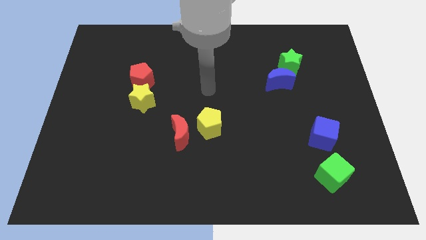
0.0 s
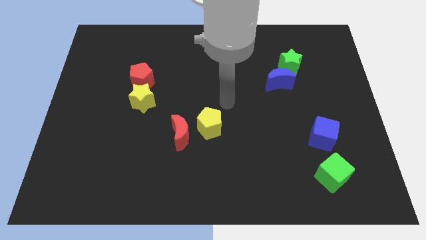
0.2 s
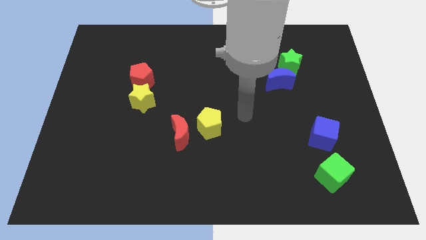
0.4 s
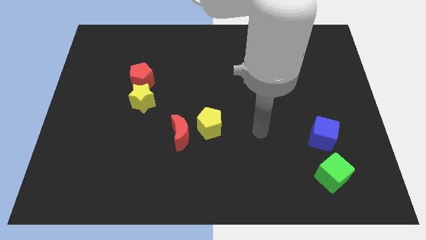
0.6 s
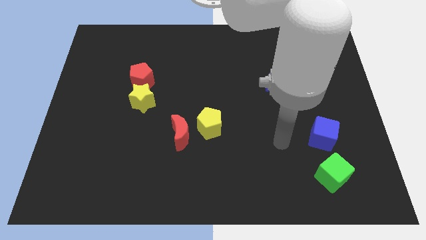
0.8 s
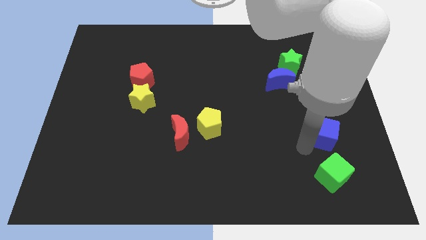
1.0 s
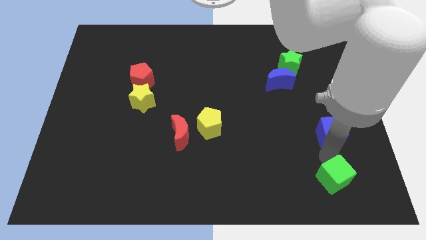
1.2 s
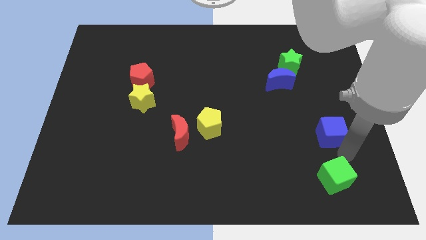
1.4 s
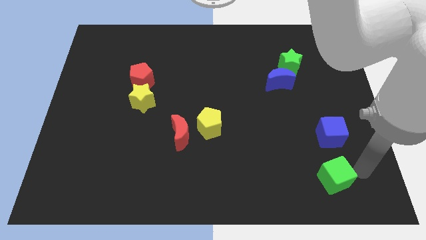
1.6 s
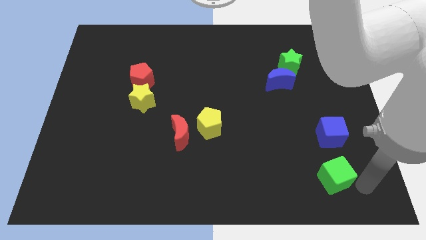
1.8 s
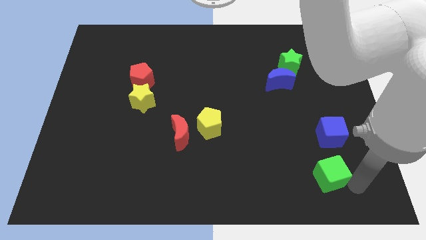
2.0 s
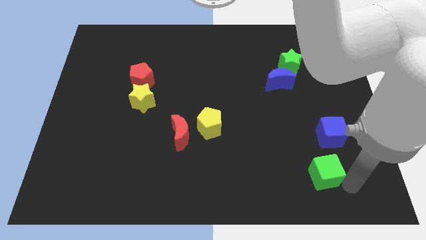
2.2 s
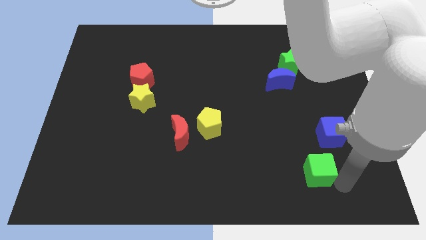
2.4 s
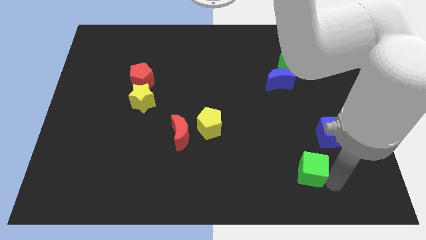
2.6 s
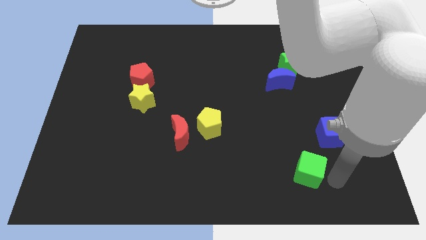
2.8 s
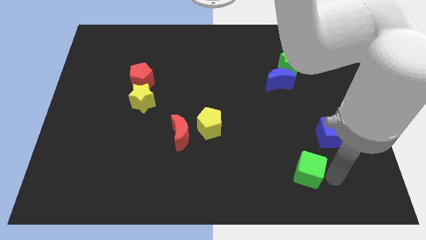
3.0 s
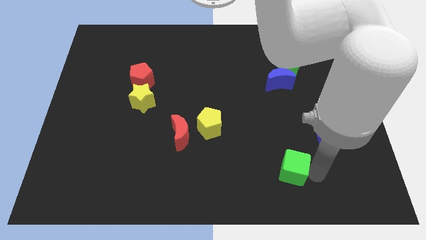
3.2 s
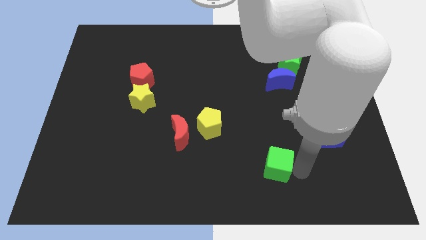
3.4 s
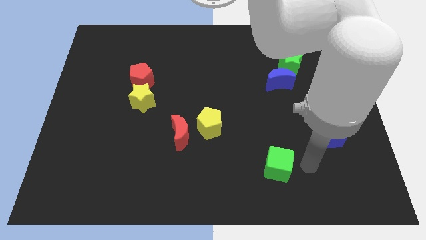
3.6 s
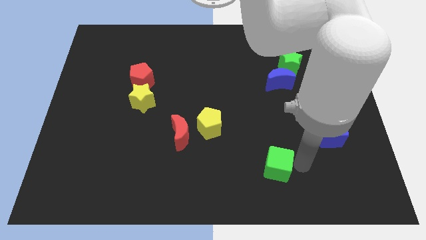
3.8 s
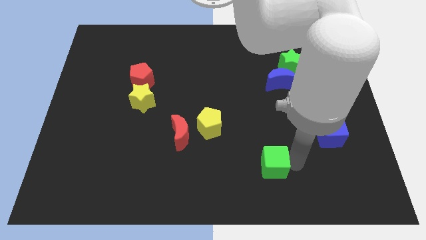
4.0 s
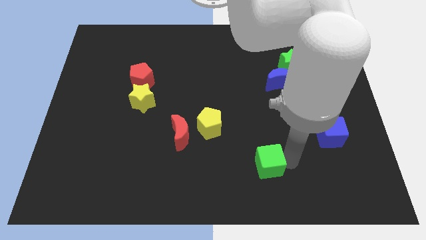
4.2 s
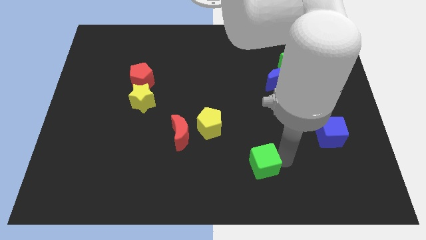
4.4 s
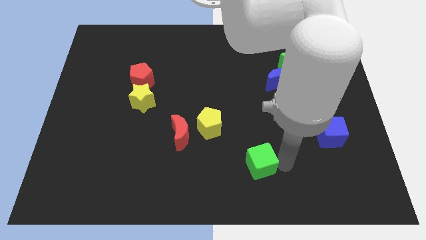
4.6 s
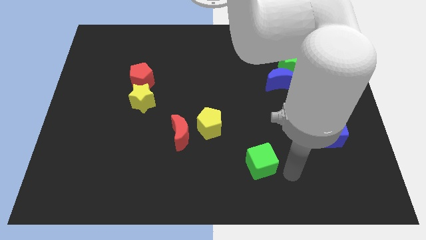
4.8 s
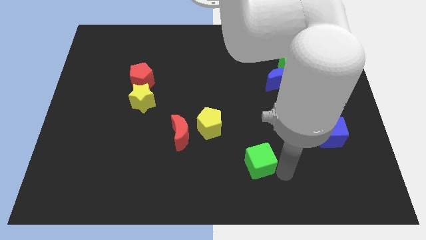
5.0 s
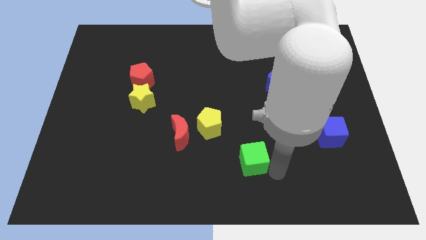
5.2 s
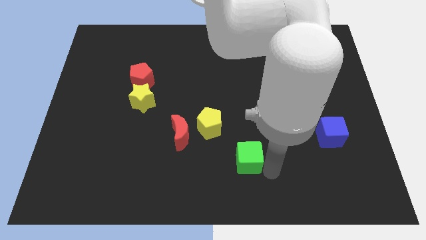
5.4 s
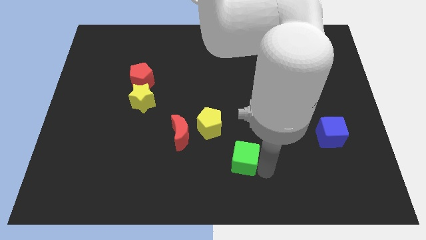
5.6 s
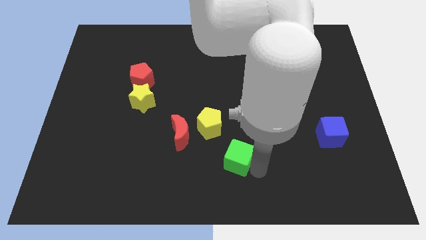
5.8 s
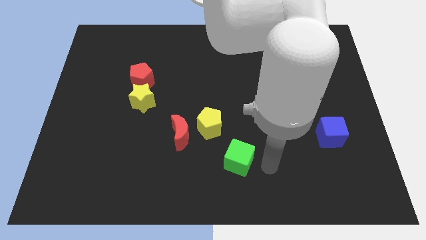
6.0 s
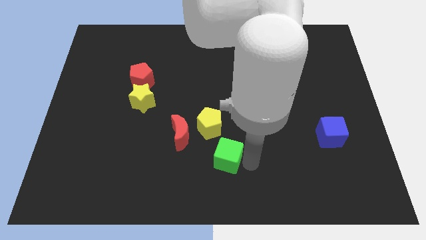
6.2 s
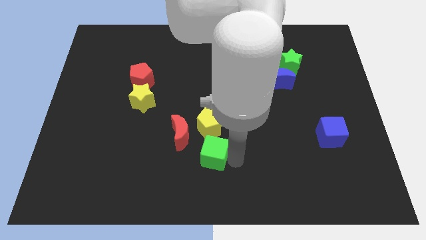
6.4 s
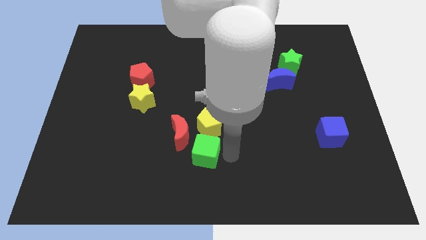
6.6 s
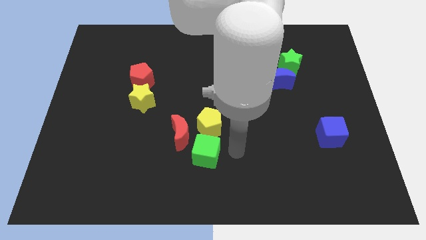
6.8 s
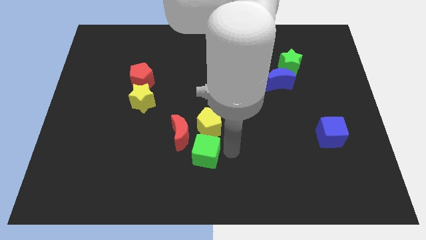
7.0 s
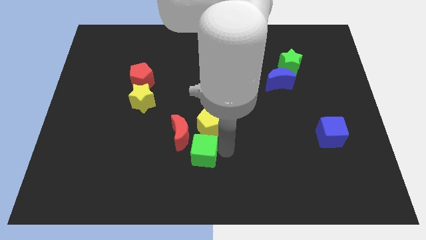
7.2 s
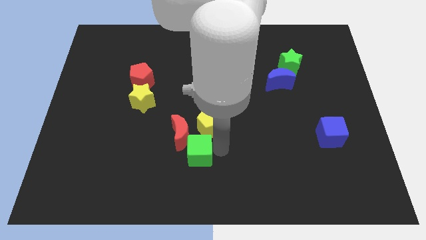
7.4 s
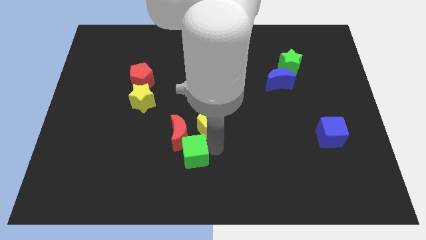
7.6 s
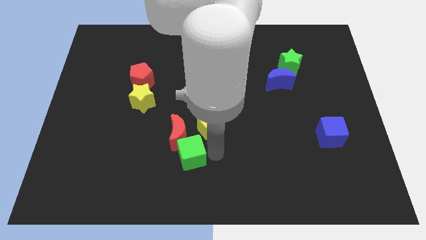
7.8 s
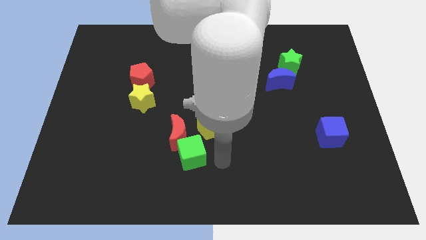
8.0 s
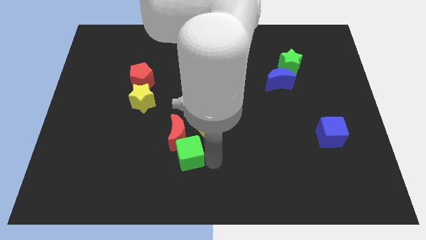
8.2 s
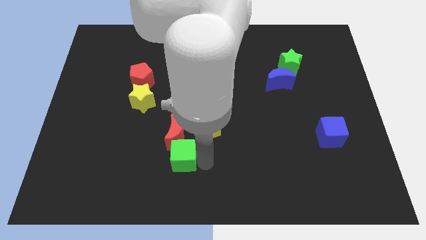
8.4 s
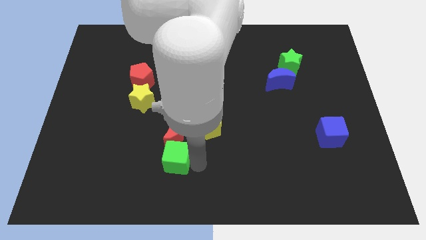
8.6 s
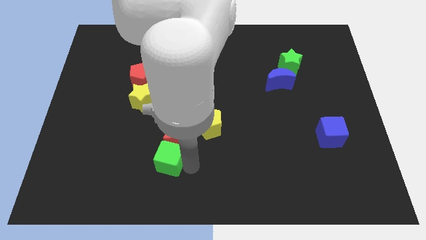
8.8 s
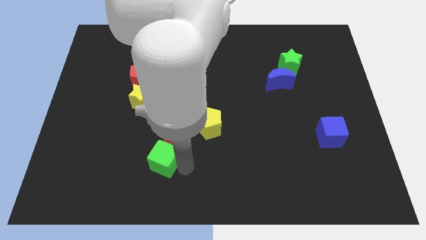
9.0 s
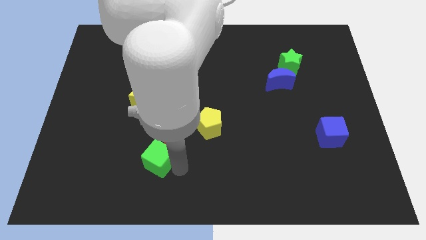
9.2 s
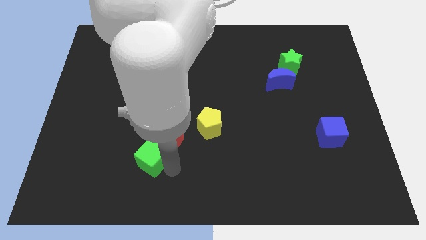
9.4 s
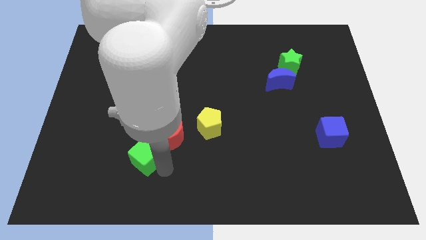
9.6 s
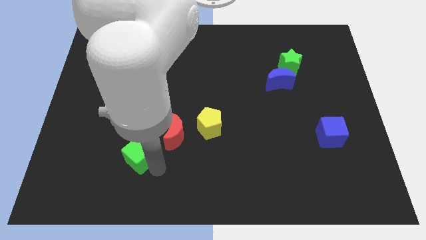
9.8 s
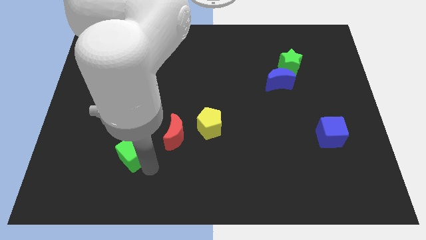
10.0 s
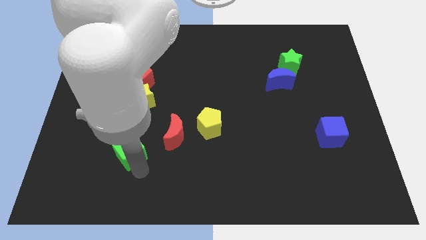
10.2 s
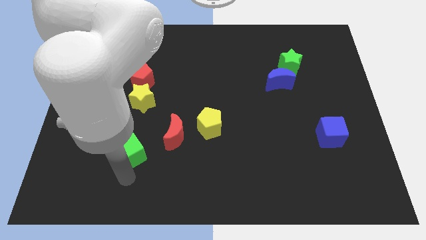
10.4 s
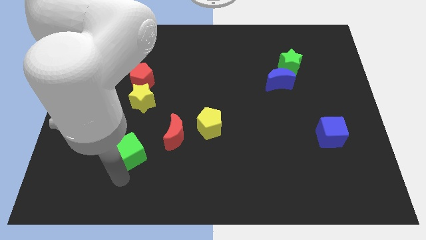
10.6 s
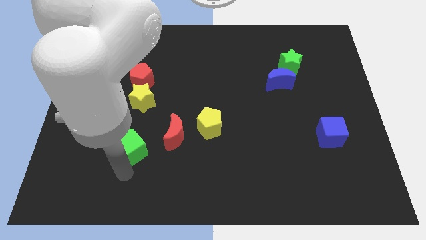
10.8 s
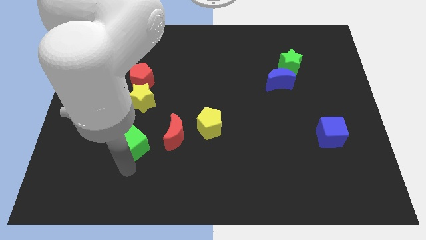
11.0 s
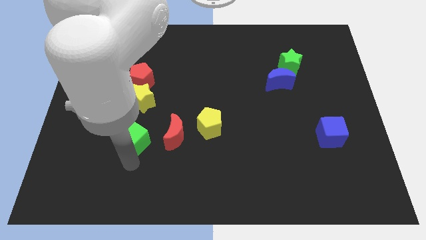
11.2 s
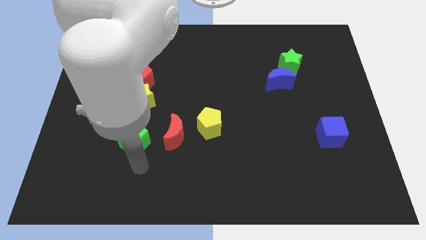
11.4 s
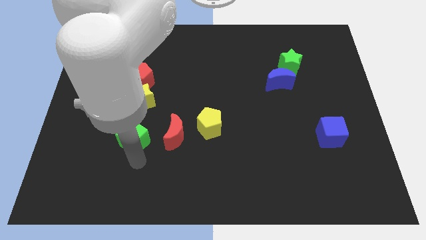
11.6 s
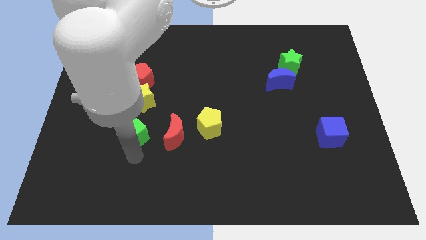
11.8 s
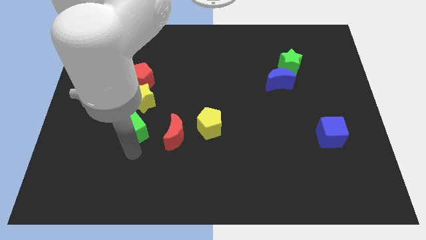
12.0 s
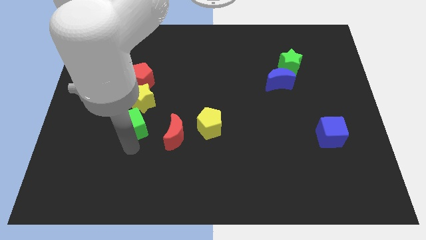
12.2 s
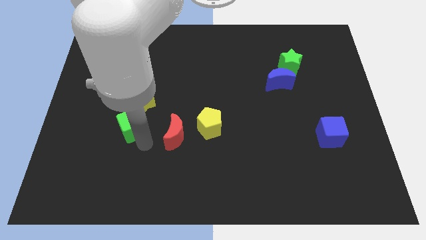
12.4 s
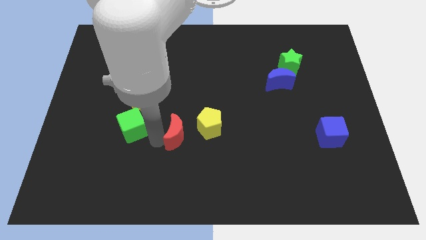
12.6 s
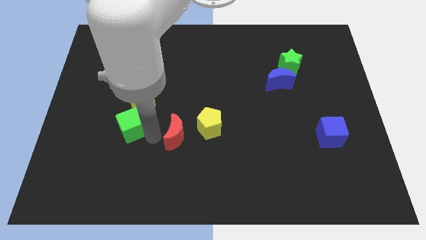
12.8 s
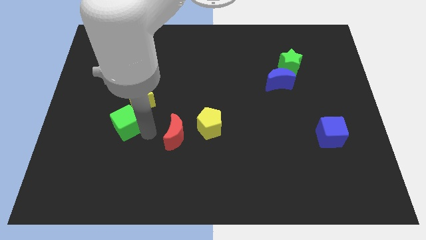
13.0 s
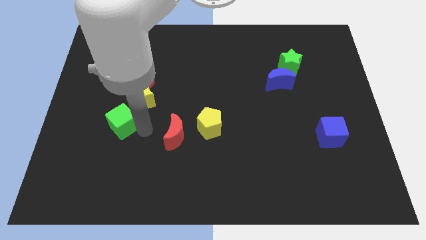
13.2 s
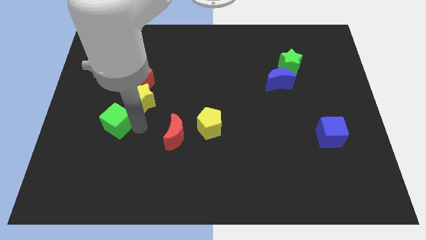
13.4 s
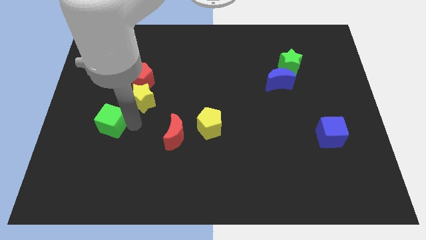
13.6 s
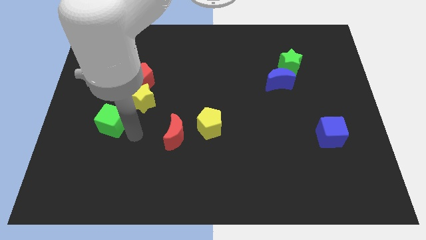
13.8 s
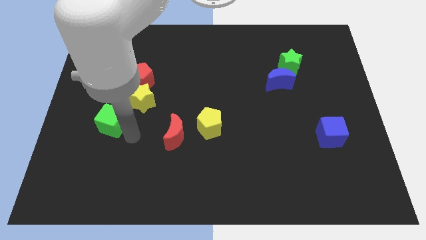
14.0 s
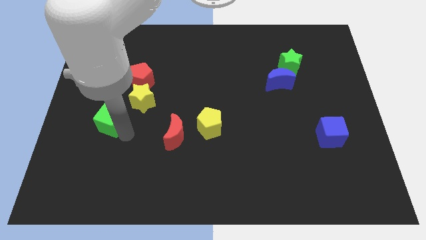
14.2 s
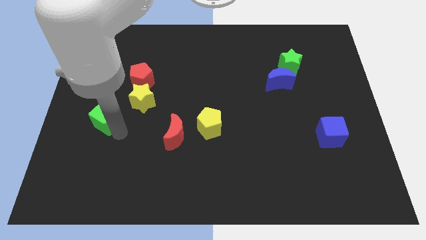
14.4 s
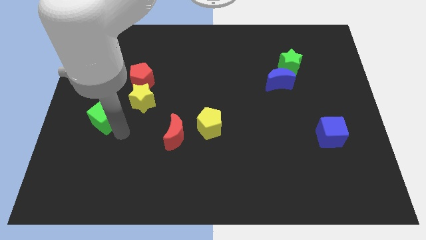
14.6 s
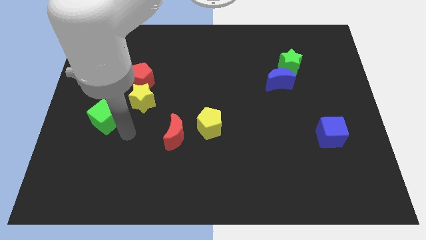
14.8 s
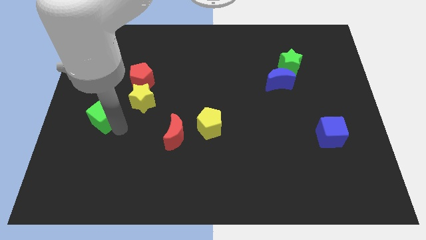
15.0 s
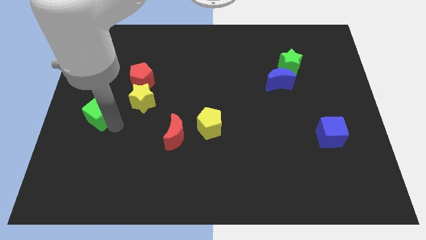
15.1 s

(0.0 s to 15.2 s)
push the green cube to the center left
